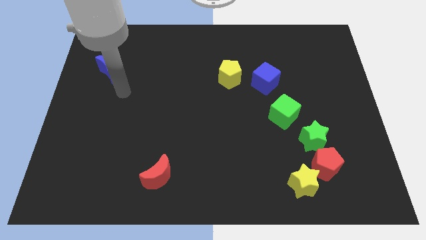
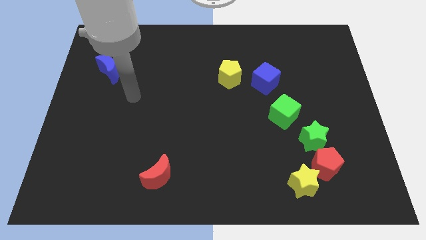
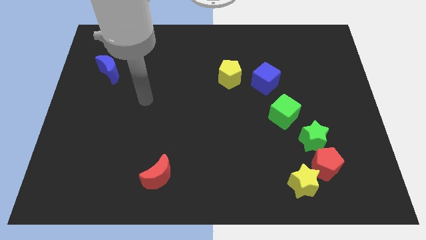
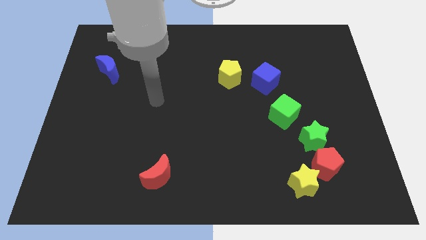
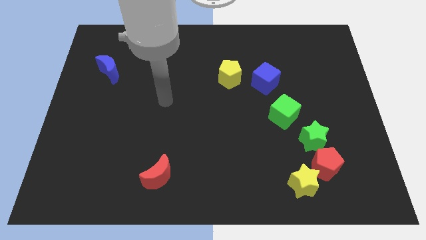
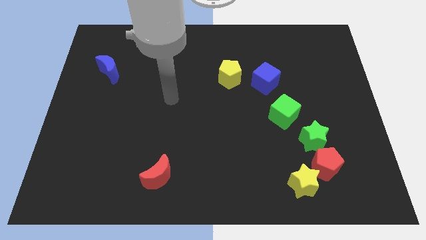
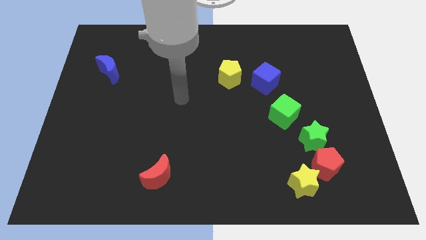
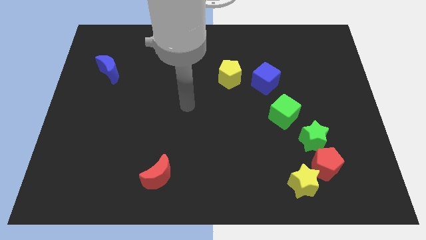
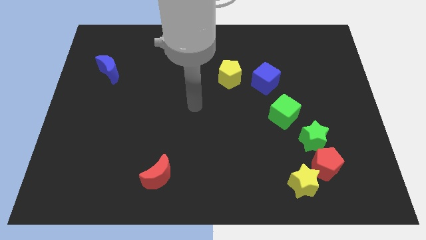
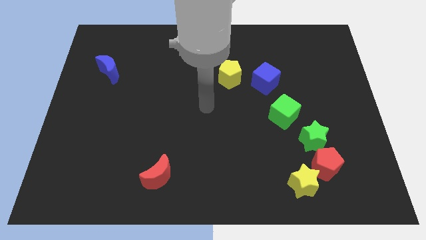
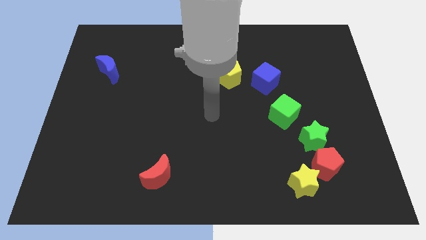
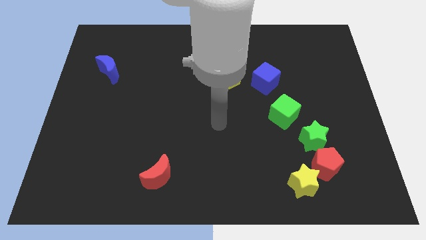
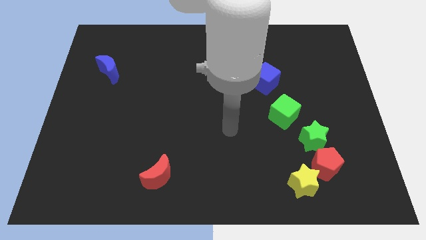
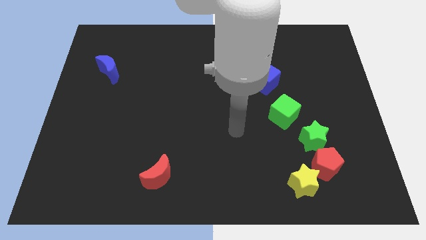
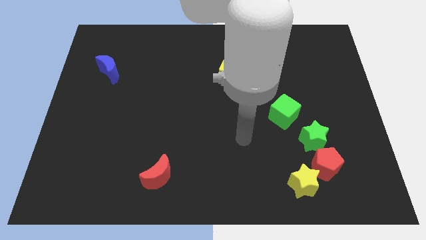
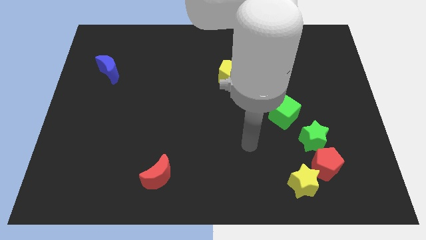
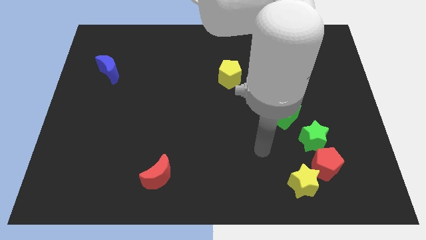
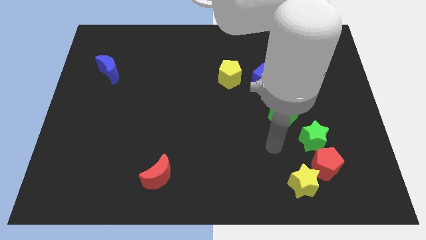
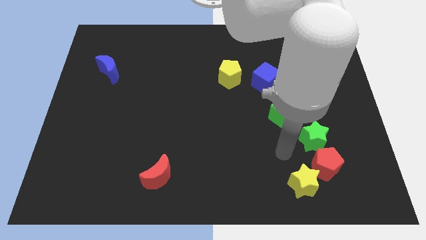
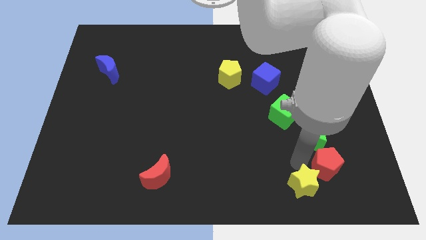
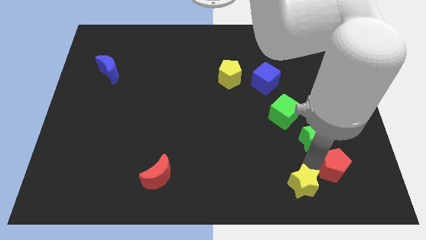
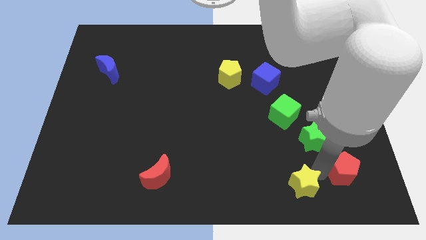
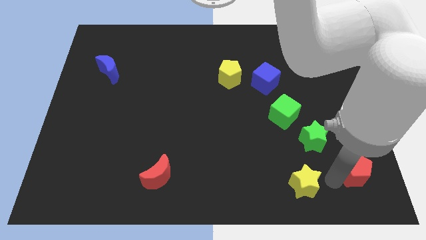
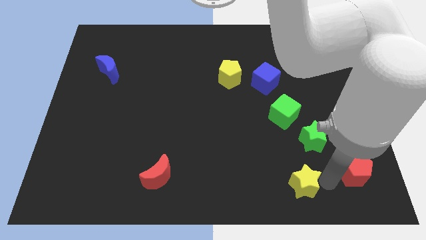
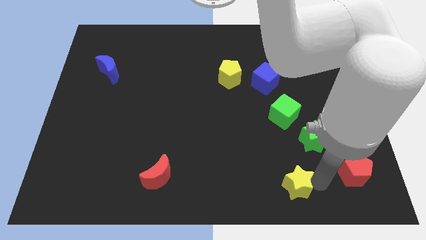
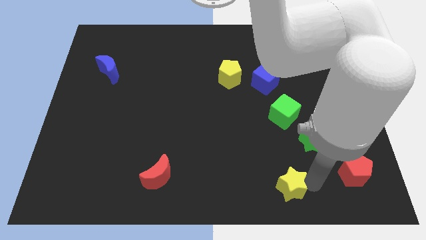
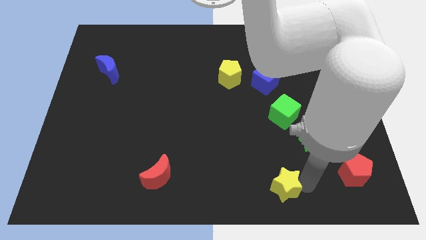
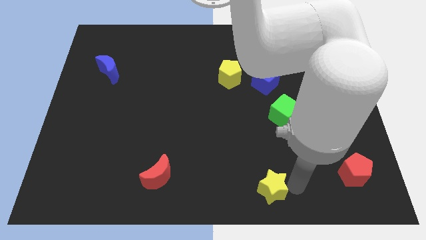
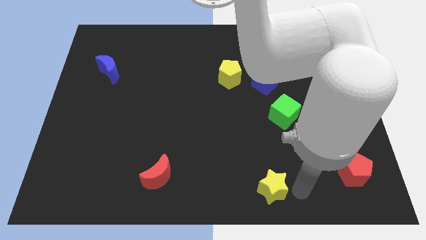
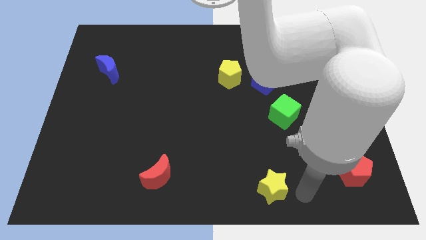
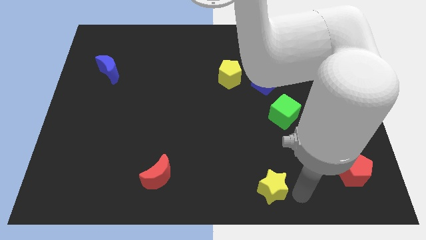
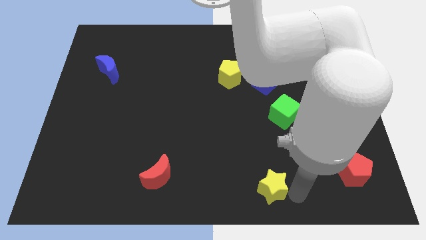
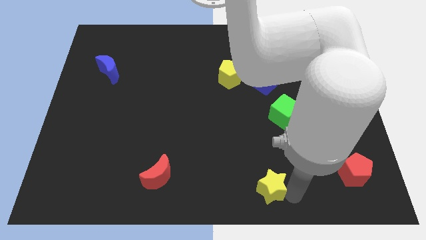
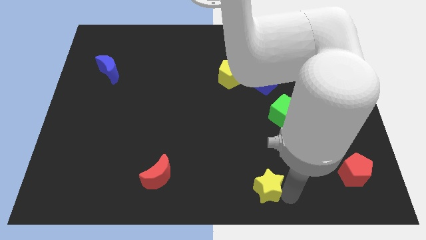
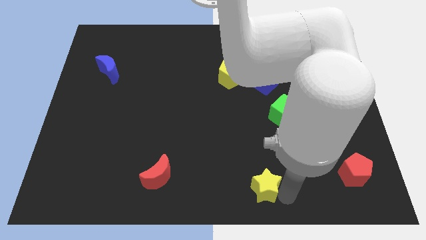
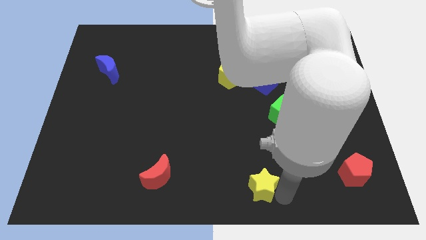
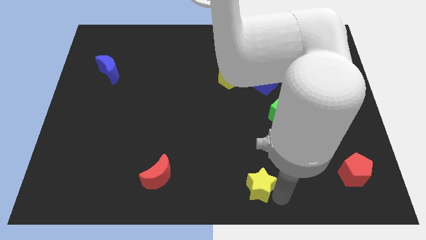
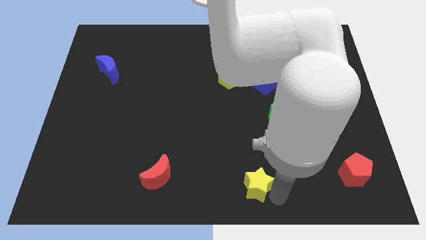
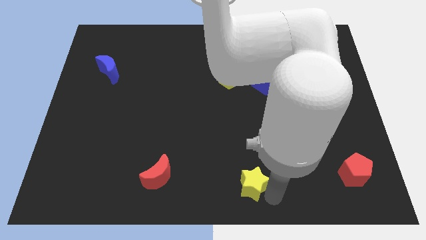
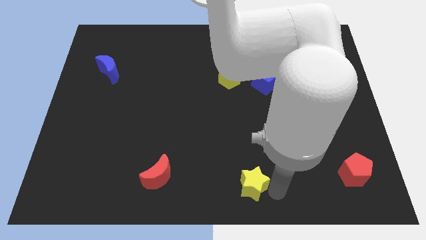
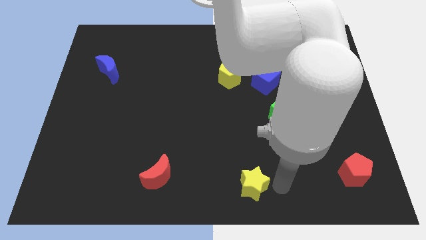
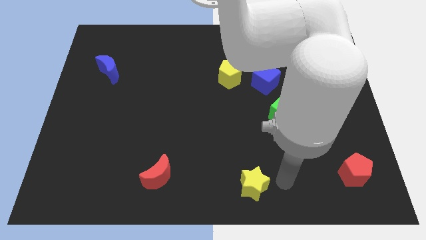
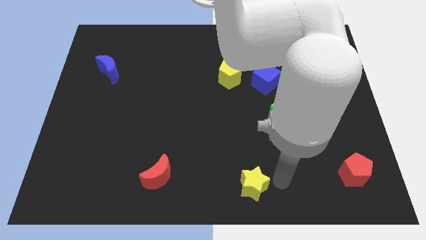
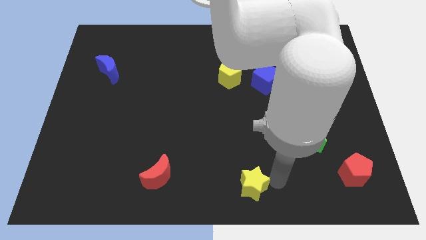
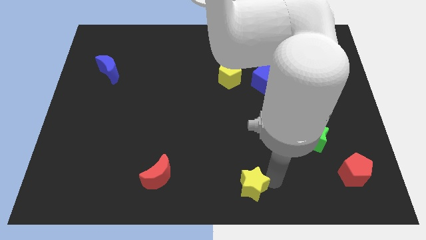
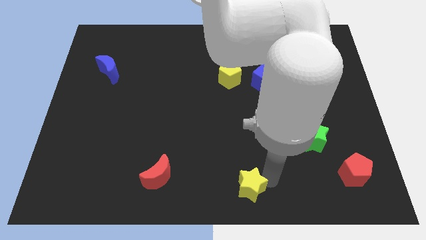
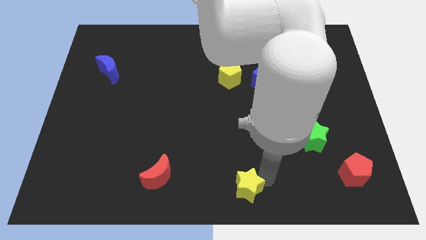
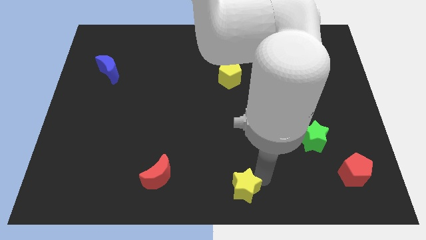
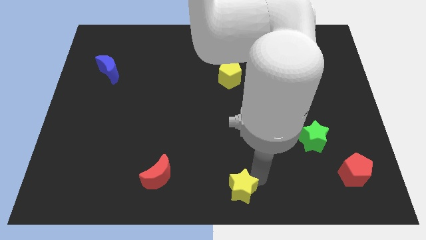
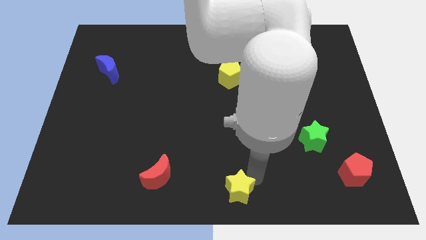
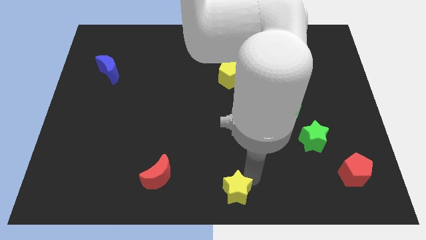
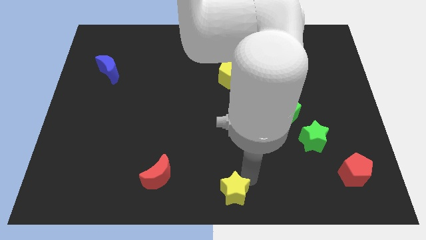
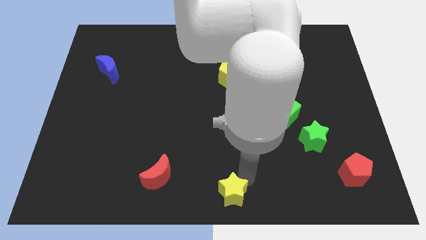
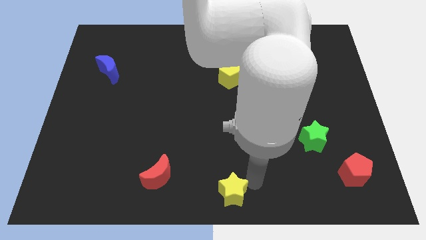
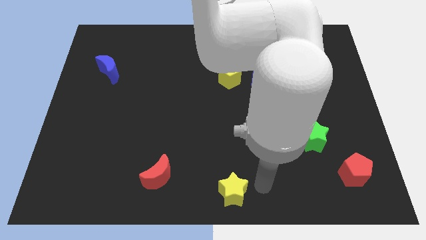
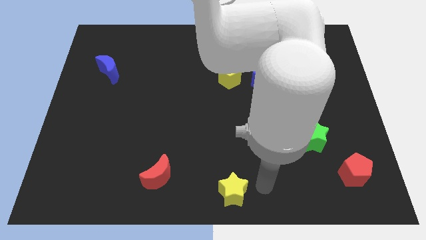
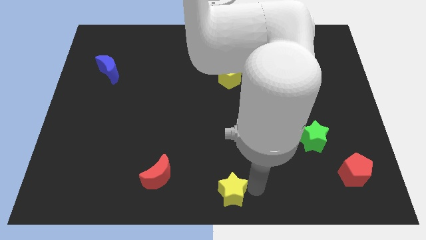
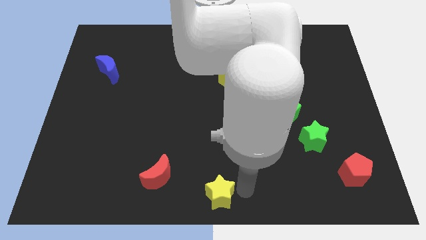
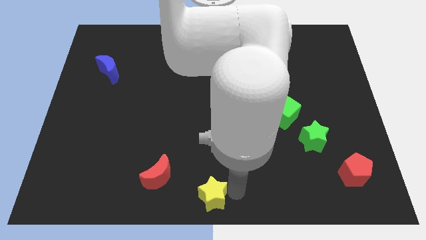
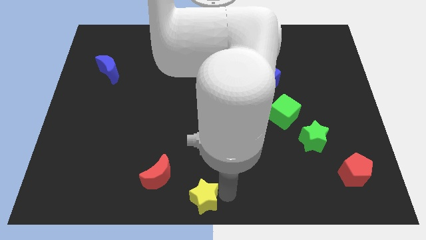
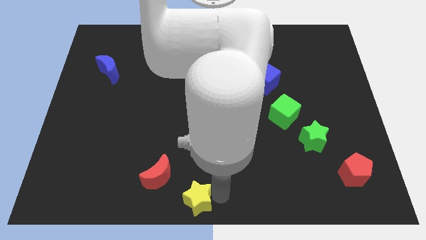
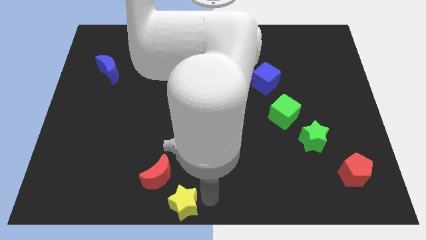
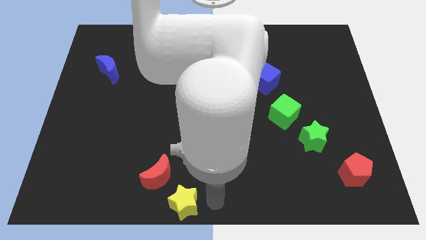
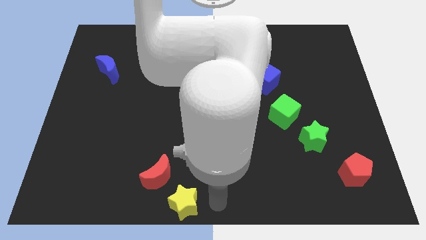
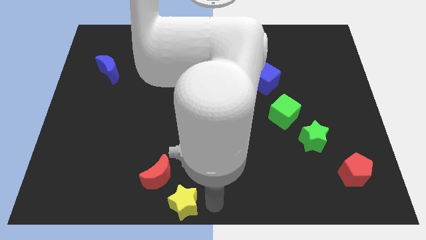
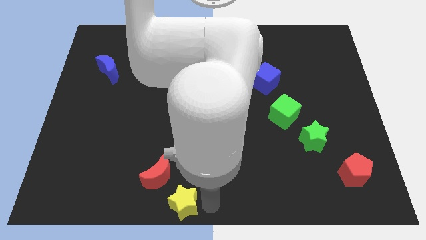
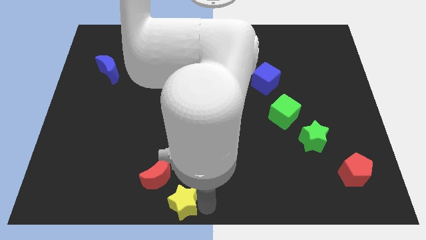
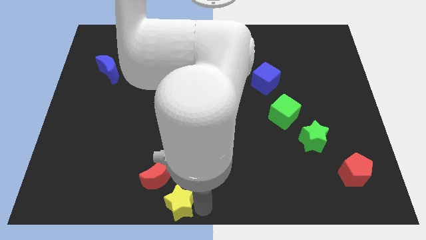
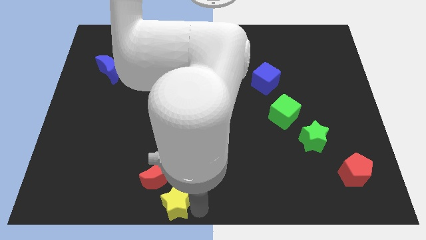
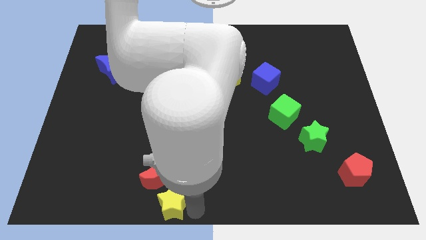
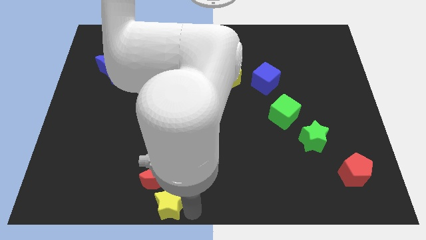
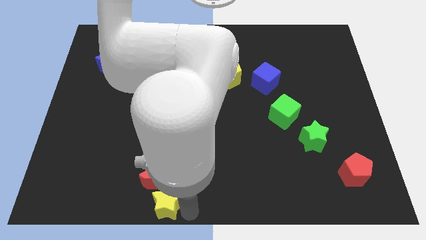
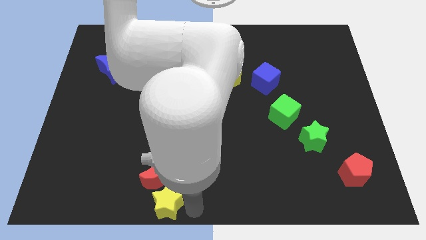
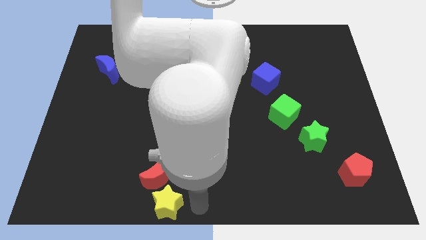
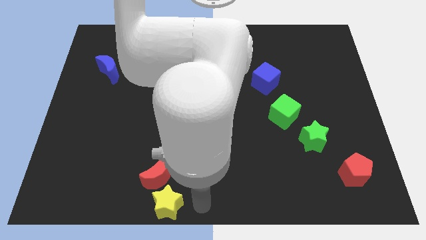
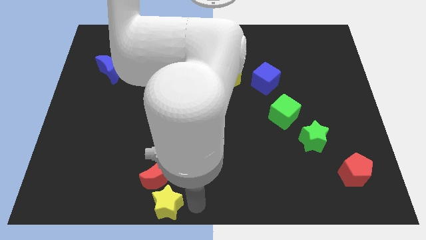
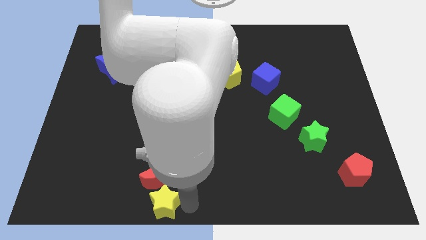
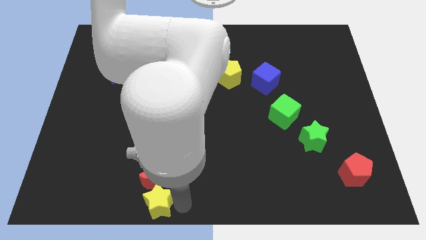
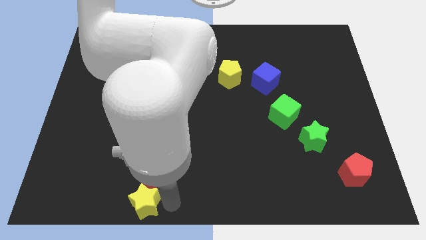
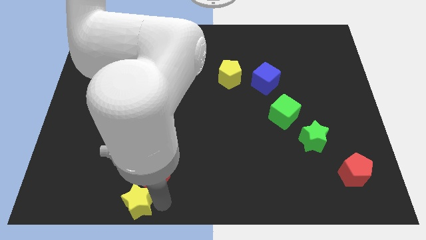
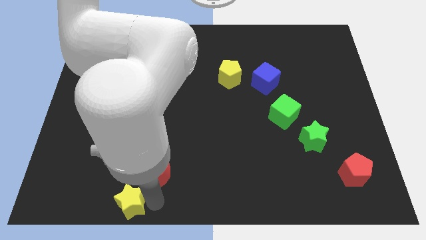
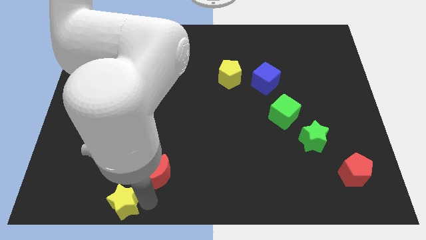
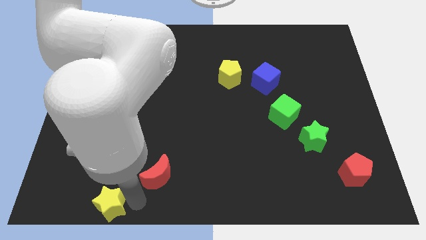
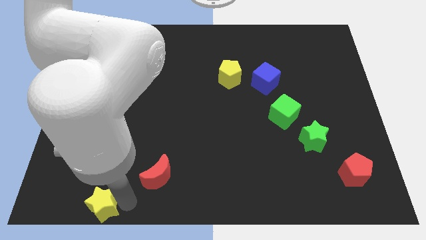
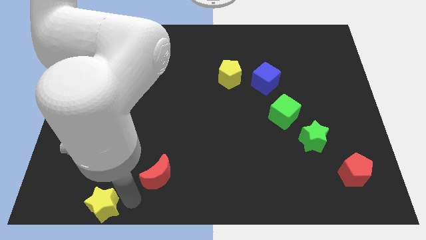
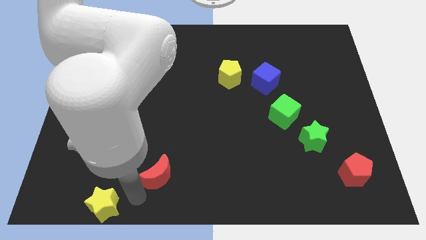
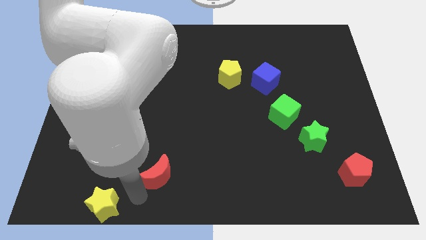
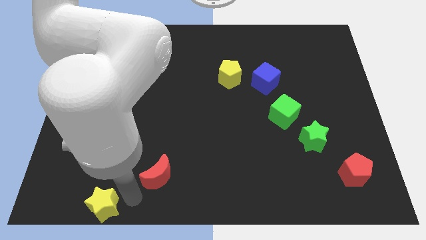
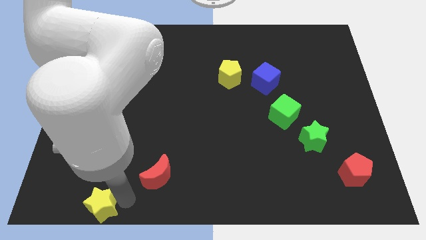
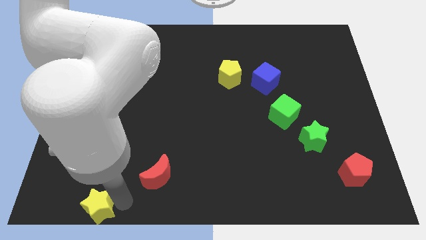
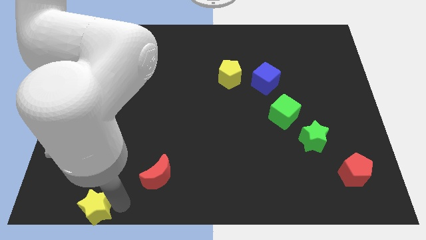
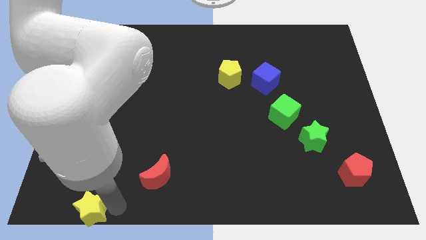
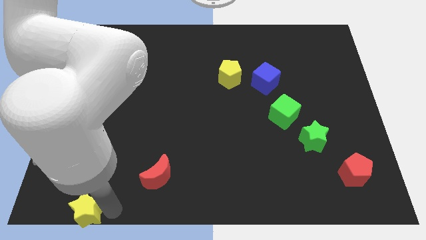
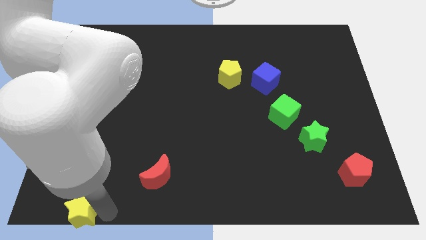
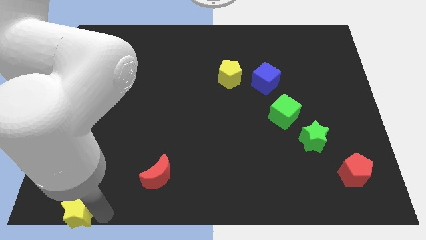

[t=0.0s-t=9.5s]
push the yellow star to the lower left corner
